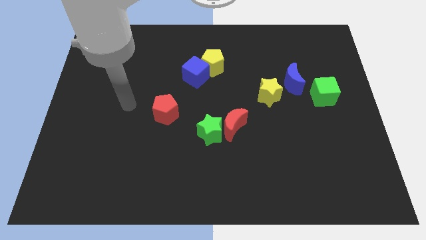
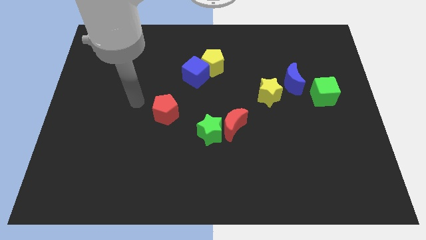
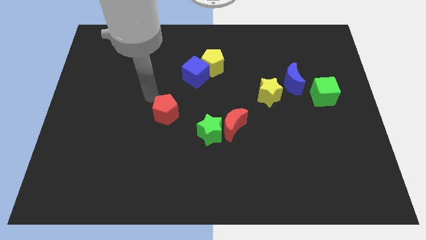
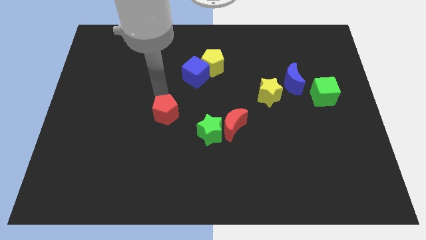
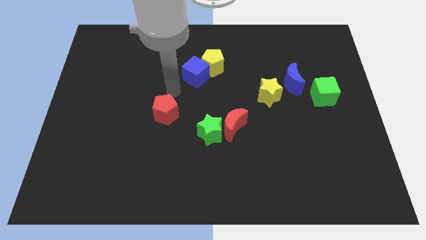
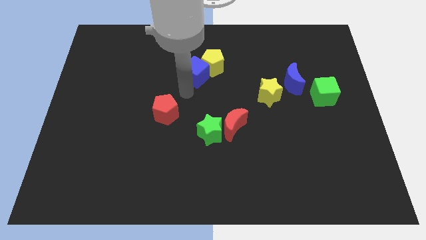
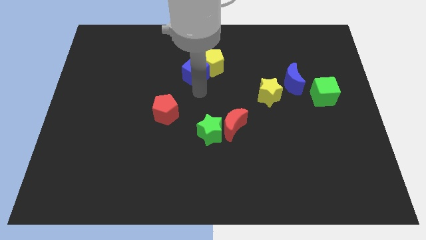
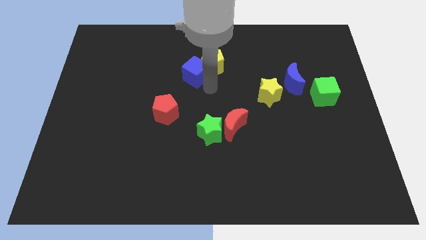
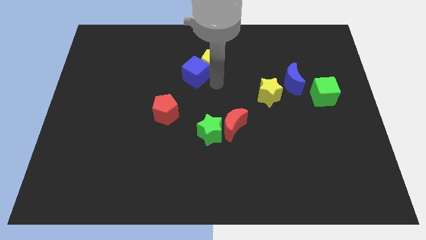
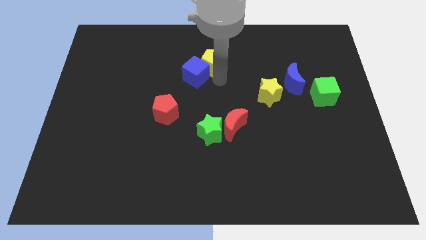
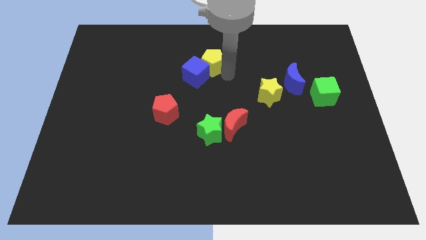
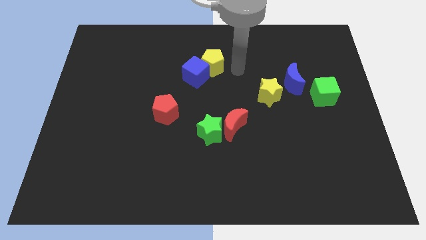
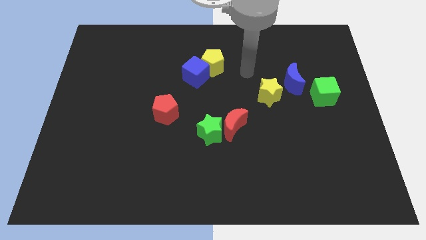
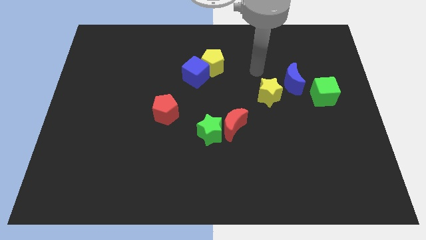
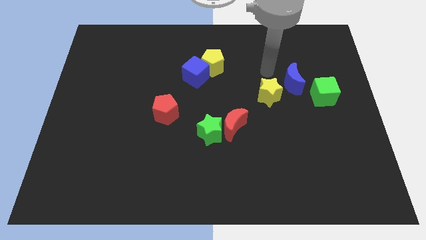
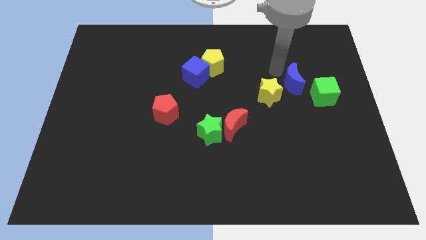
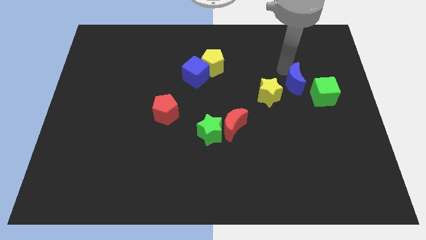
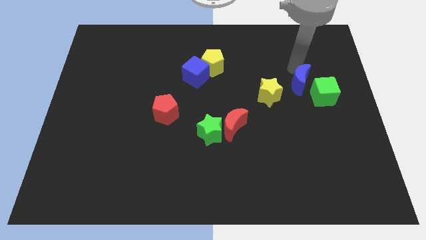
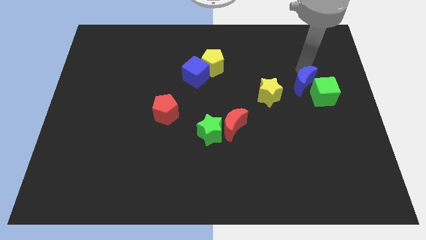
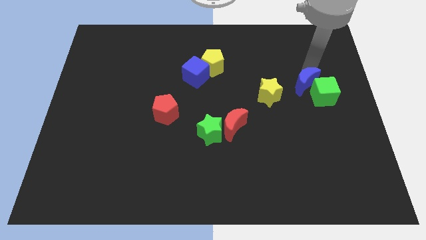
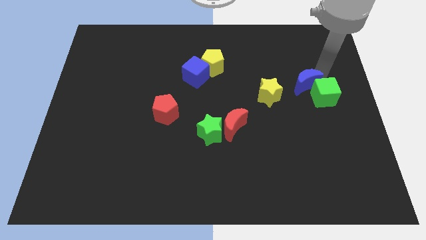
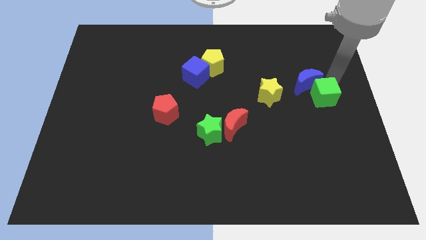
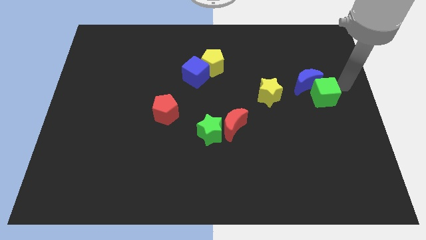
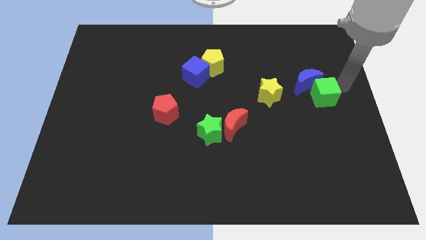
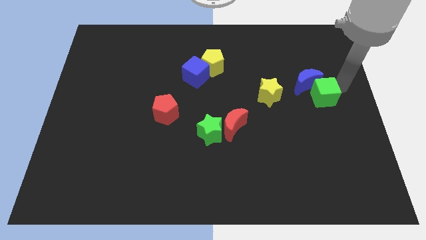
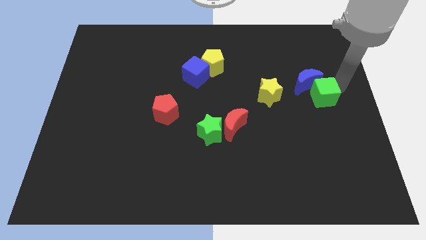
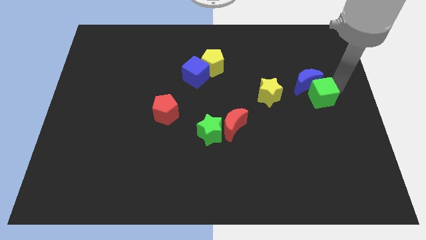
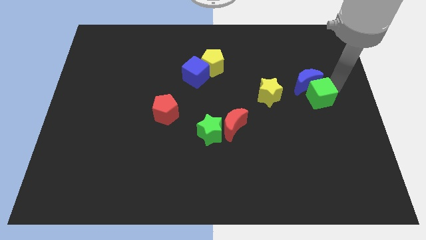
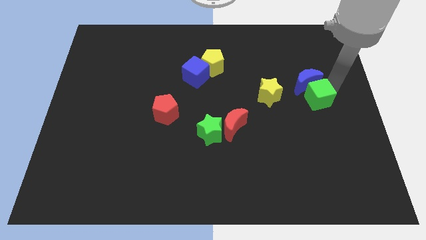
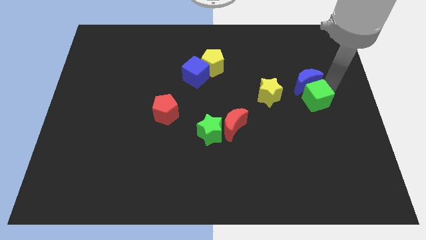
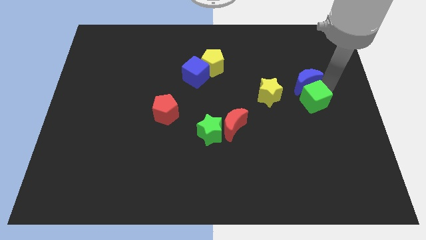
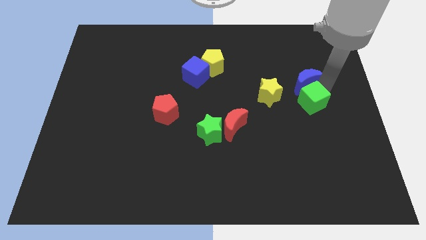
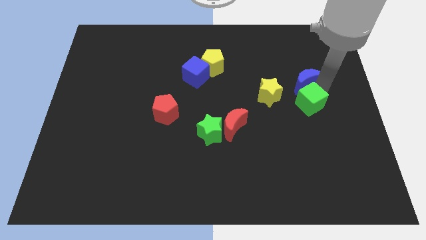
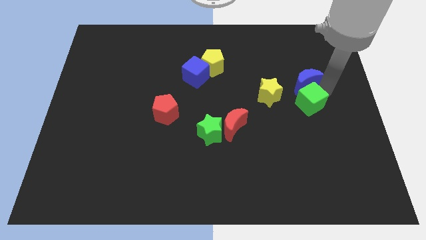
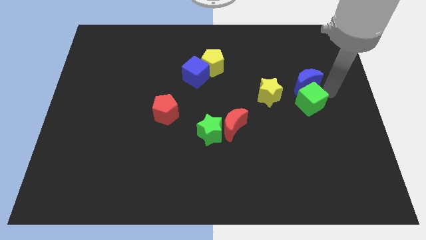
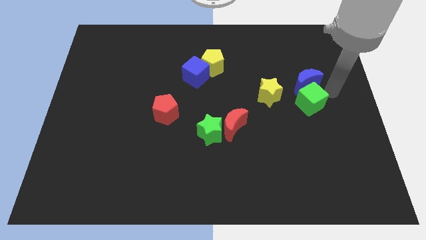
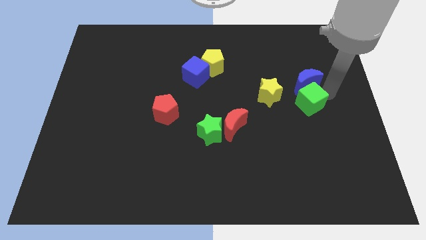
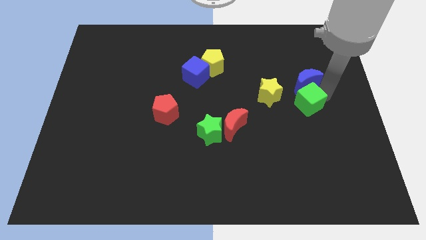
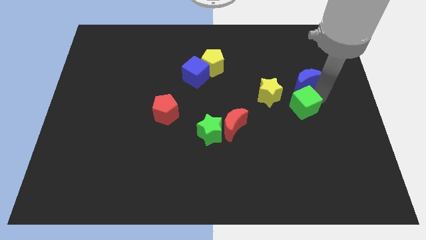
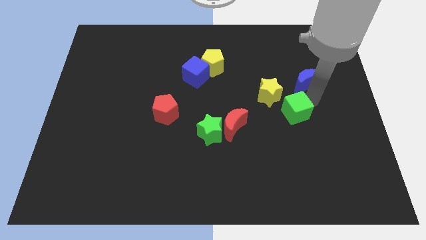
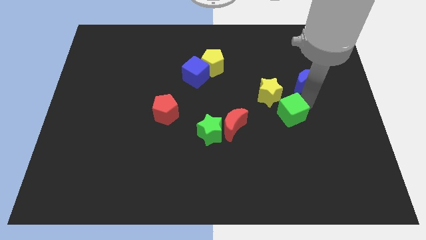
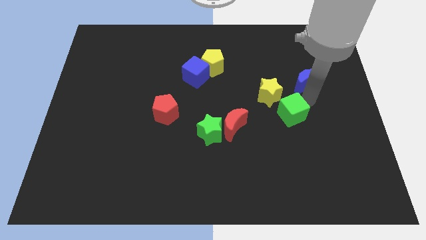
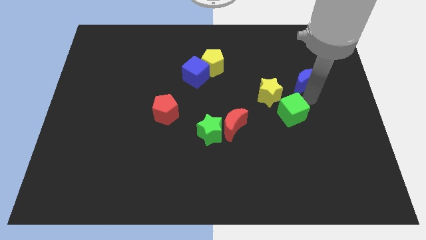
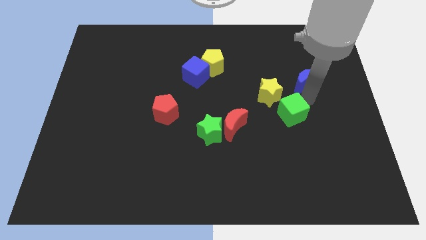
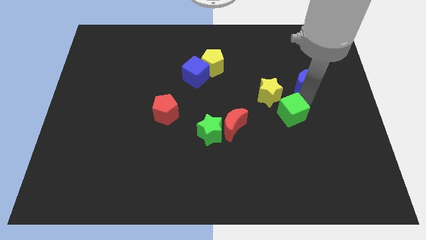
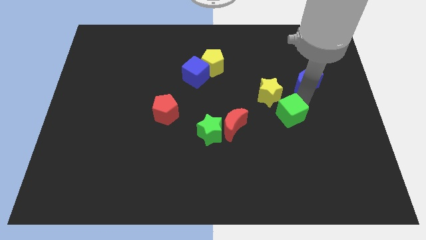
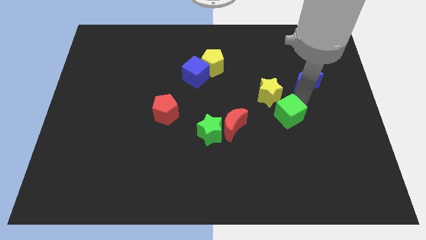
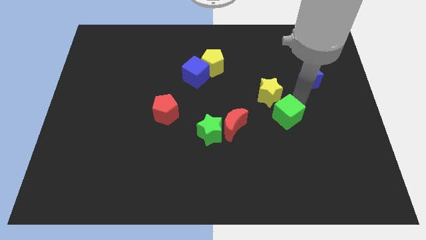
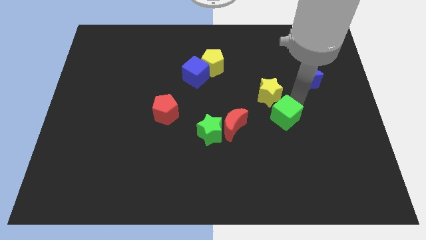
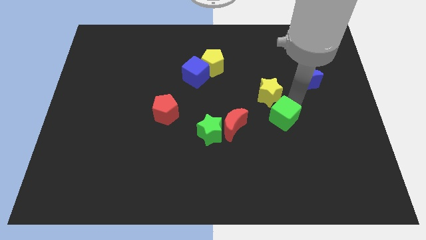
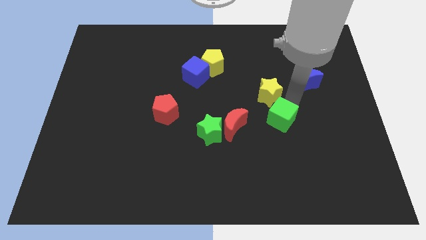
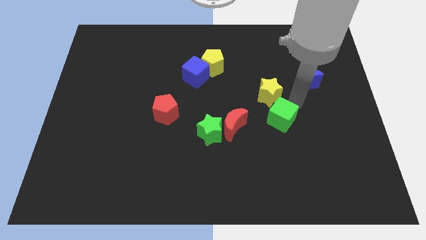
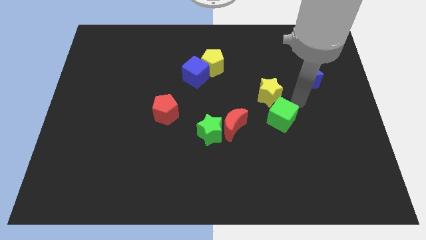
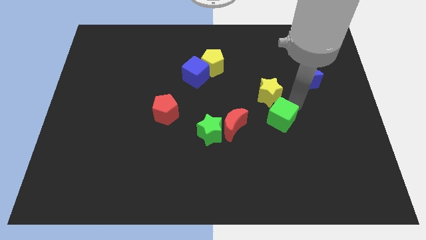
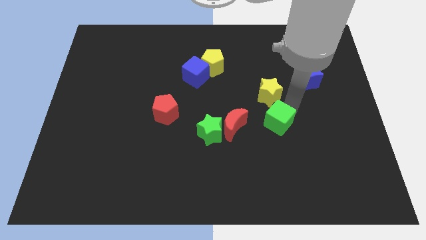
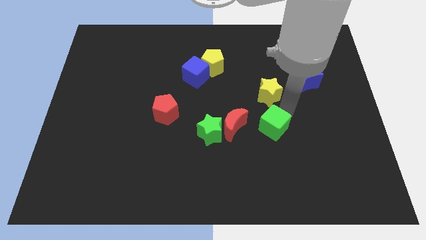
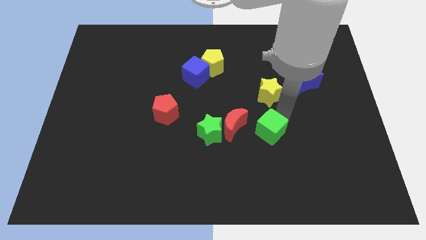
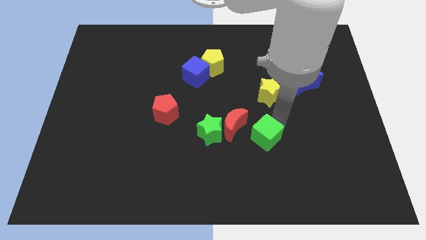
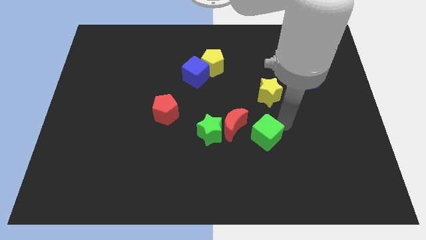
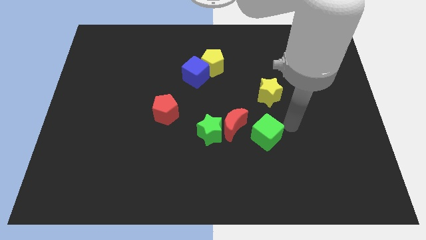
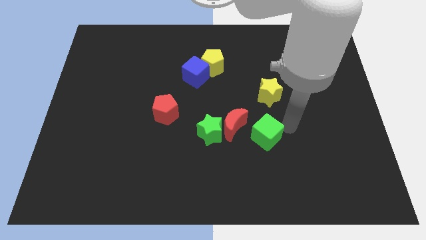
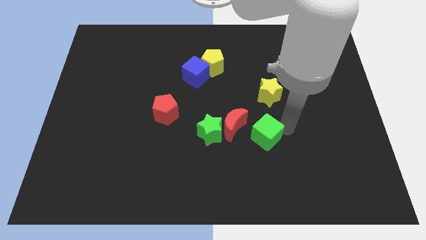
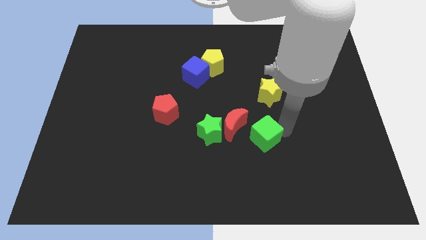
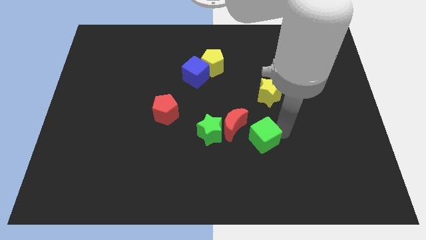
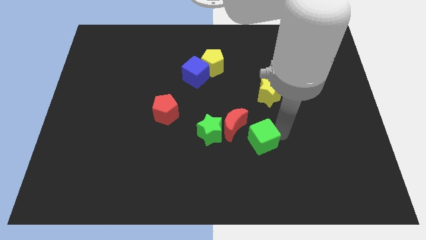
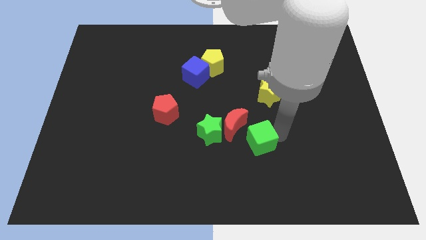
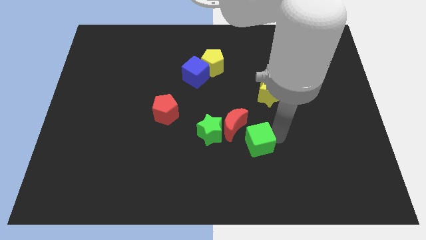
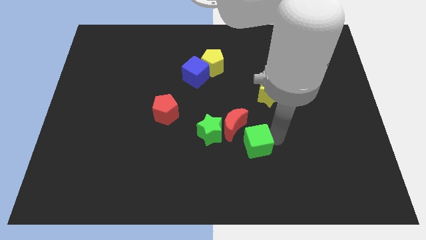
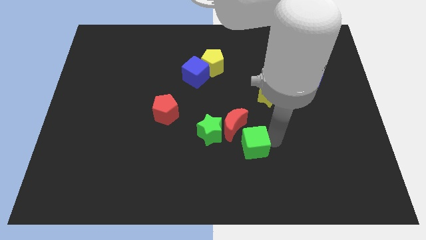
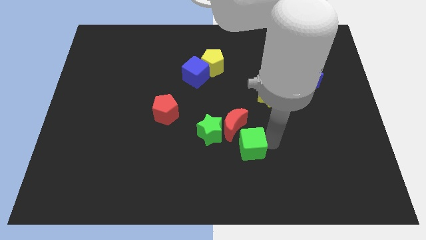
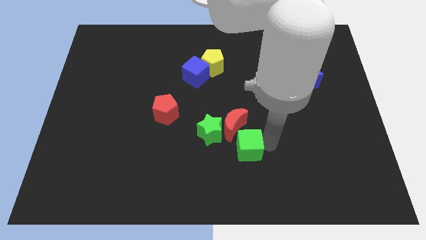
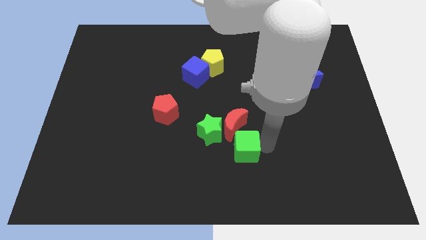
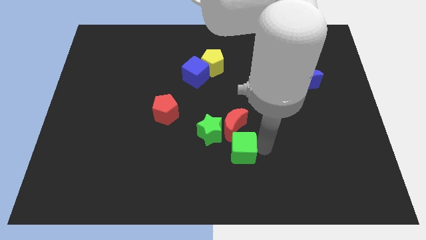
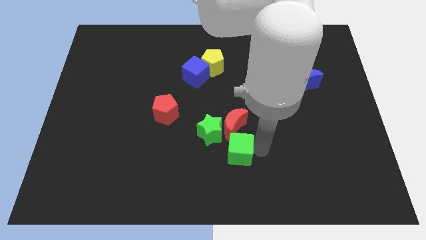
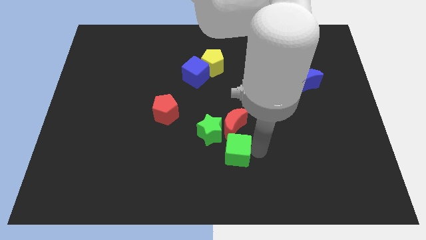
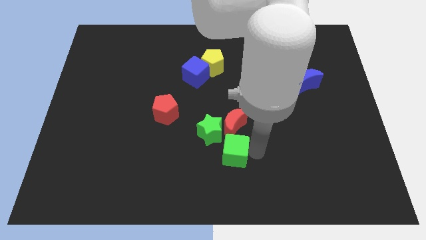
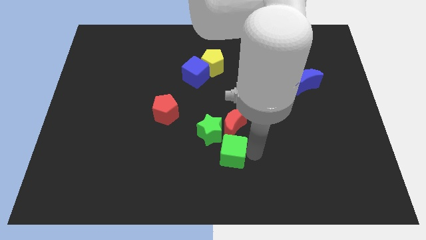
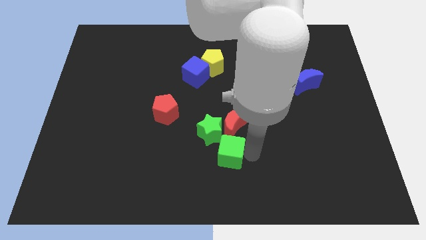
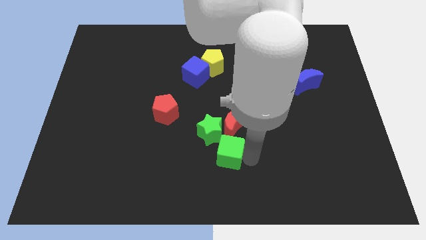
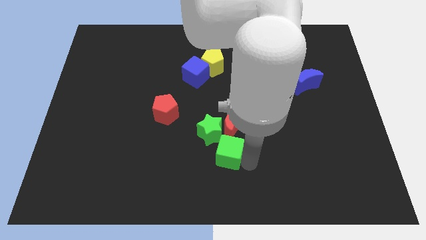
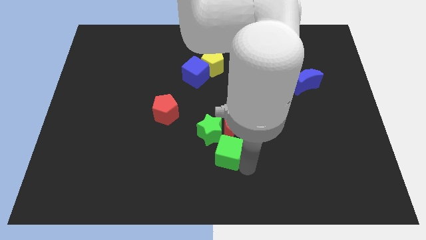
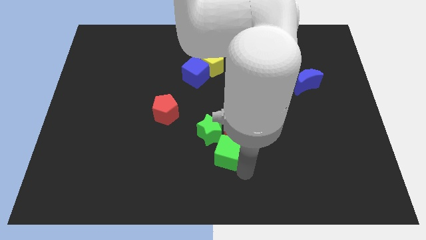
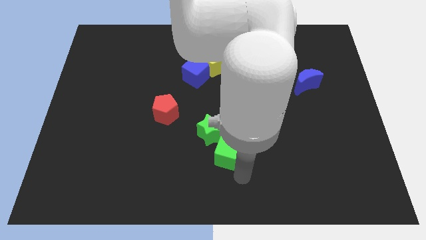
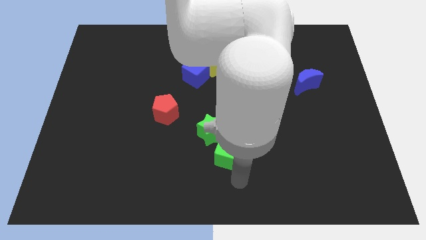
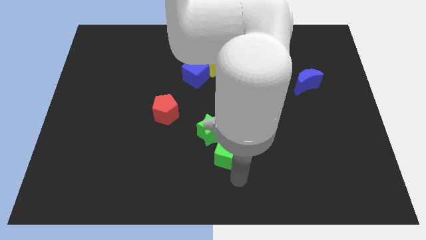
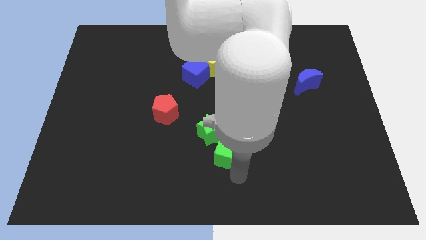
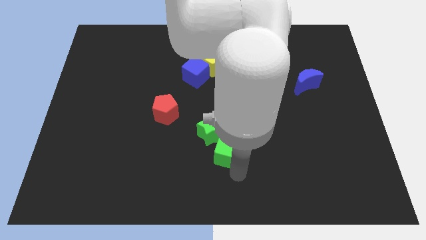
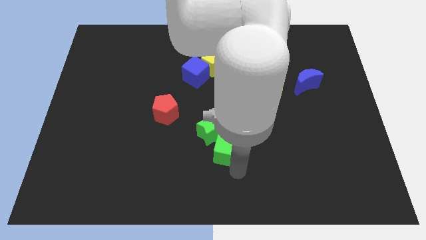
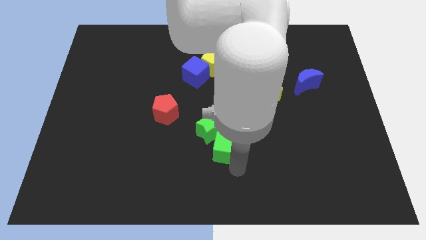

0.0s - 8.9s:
move the green cube next to the green star
